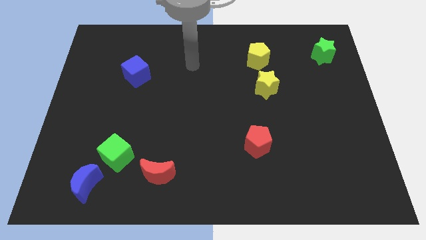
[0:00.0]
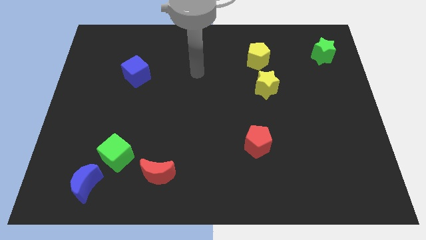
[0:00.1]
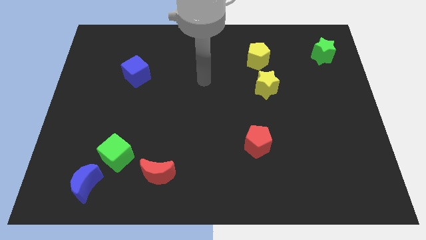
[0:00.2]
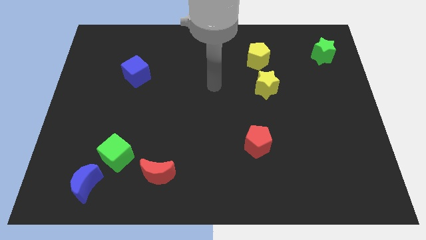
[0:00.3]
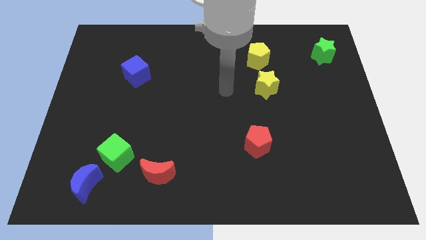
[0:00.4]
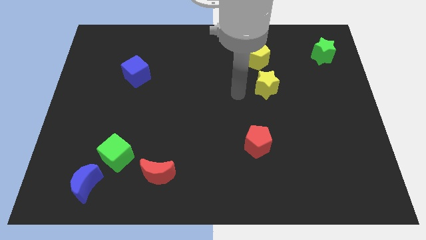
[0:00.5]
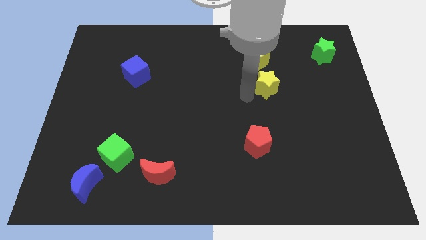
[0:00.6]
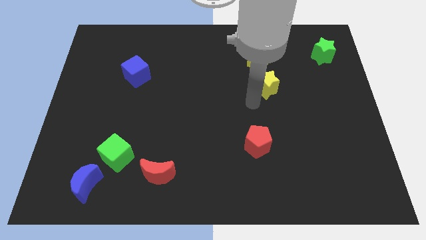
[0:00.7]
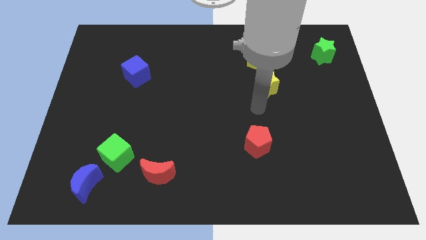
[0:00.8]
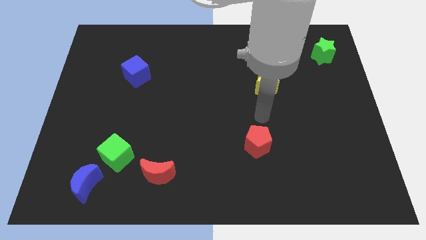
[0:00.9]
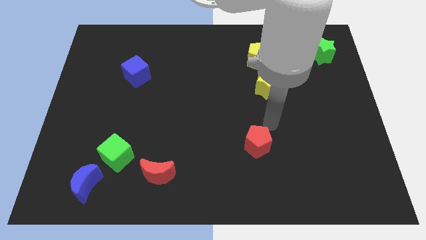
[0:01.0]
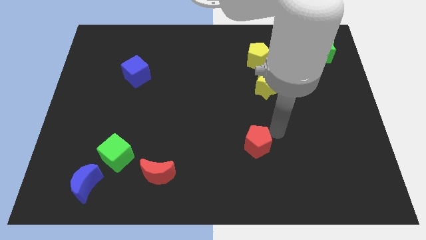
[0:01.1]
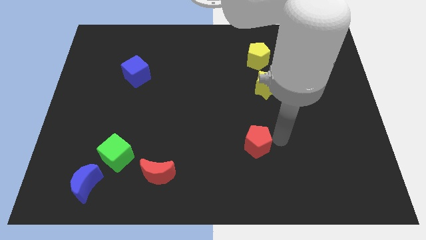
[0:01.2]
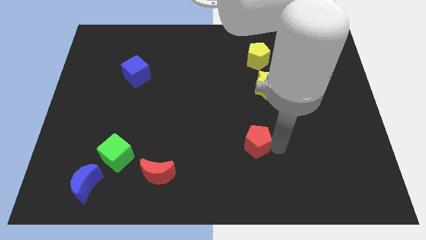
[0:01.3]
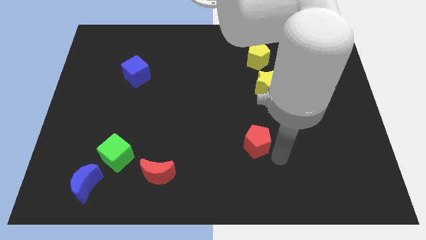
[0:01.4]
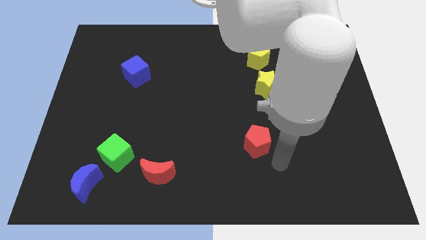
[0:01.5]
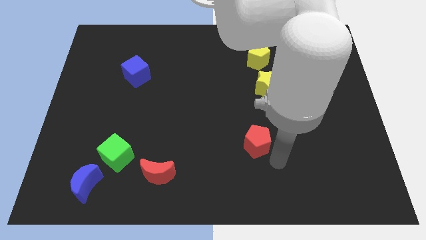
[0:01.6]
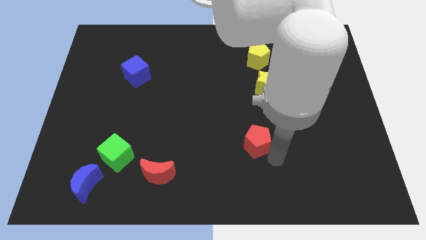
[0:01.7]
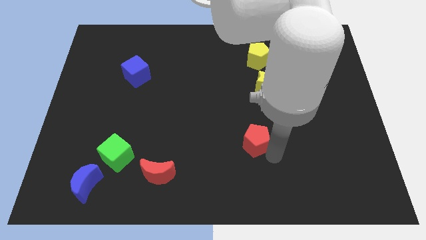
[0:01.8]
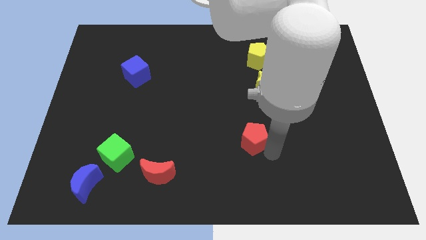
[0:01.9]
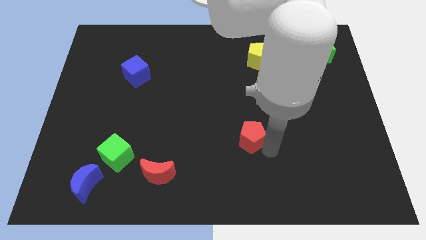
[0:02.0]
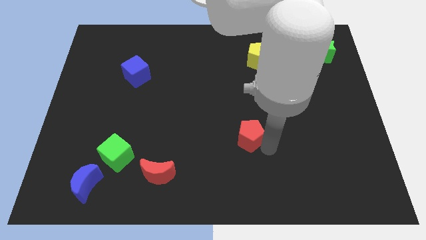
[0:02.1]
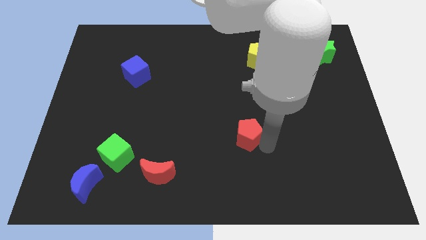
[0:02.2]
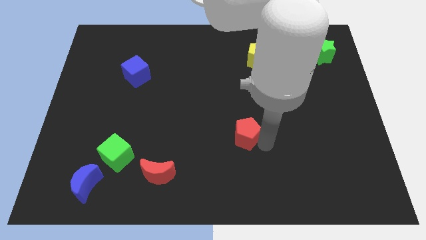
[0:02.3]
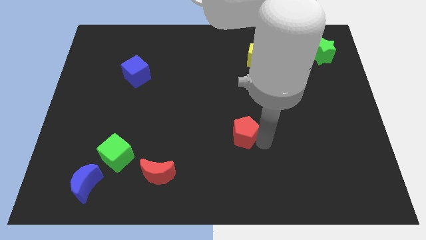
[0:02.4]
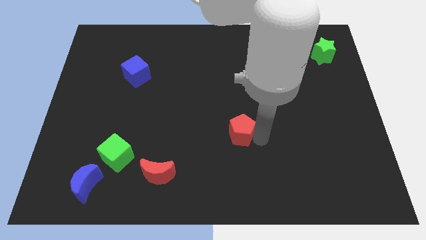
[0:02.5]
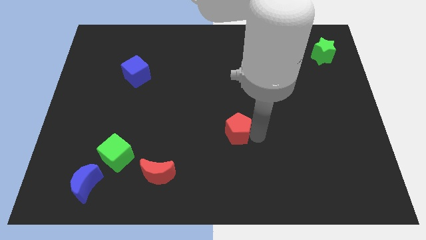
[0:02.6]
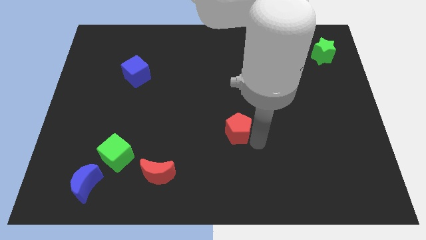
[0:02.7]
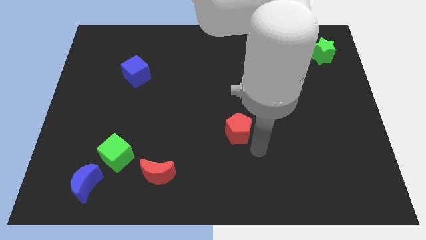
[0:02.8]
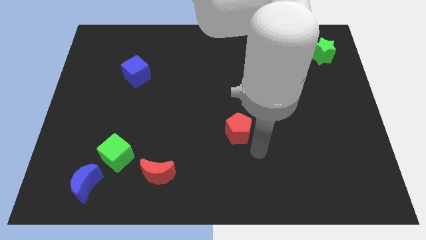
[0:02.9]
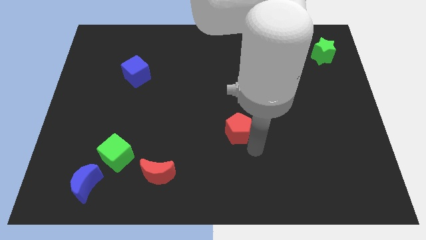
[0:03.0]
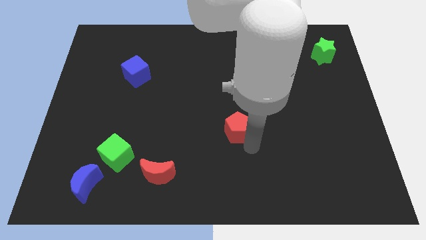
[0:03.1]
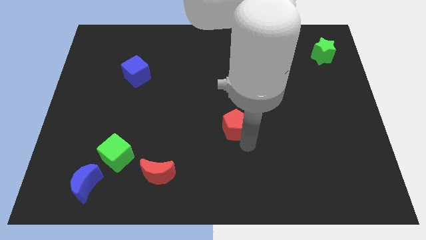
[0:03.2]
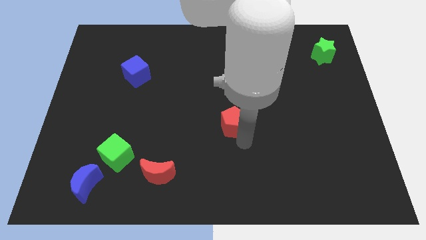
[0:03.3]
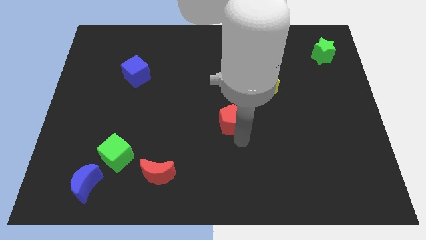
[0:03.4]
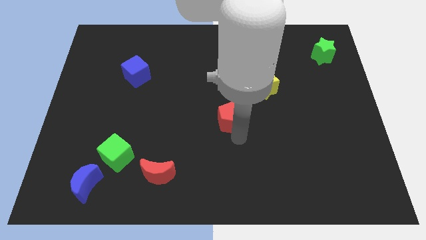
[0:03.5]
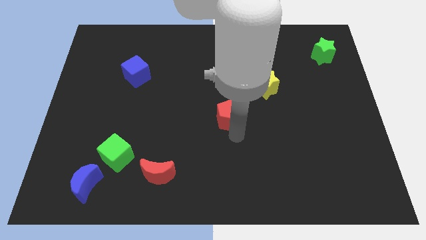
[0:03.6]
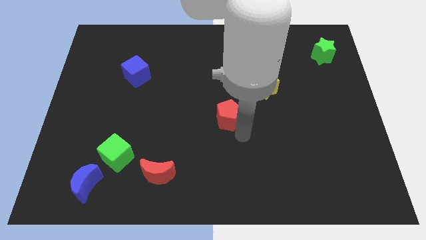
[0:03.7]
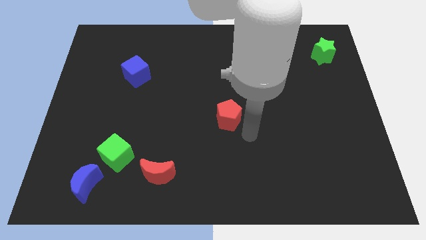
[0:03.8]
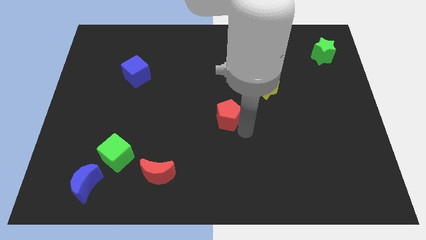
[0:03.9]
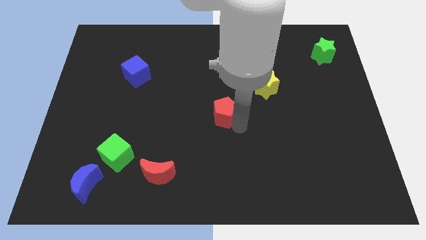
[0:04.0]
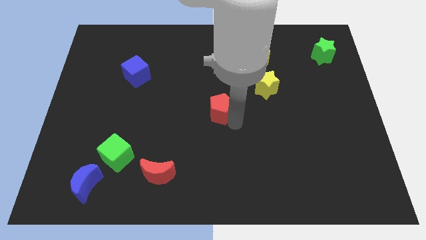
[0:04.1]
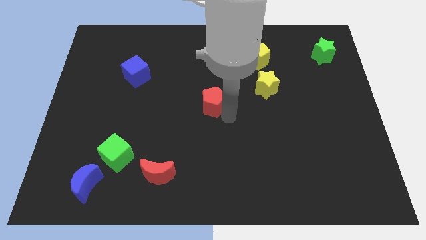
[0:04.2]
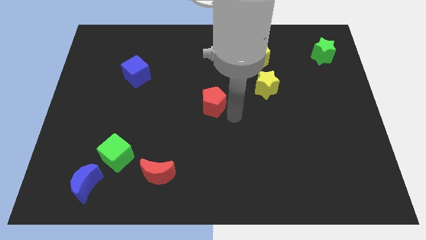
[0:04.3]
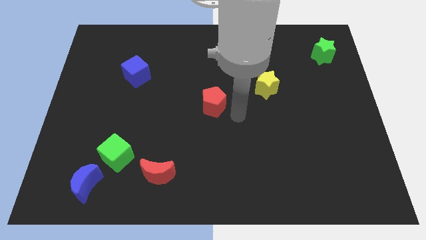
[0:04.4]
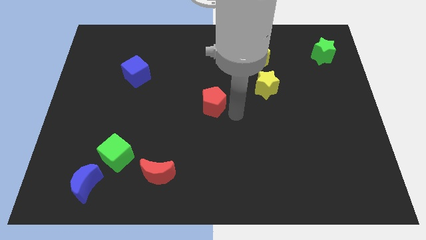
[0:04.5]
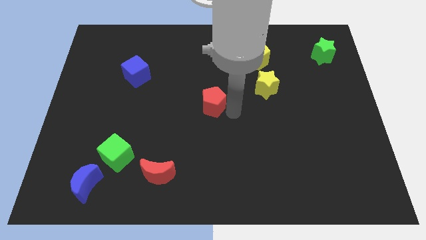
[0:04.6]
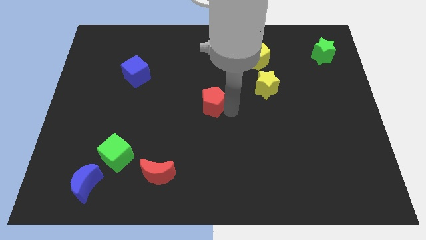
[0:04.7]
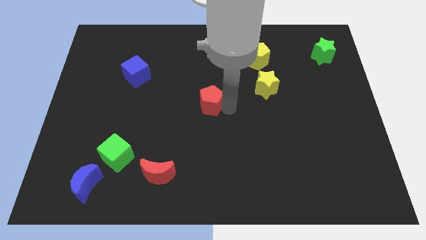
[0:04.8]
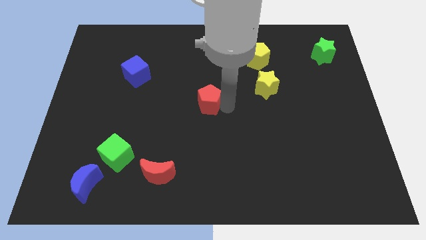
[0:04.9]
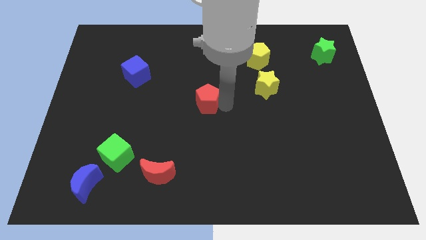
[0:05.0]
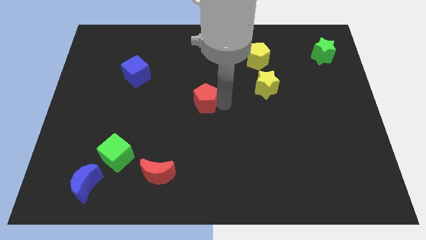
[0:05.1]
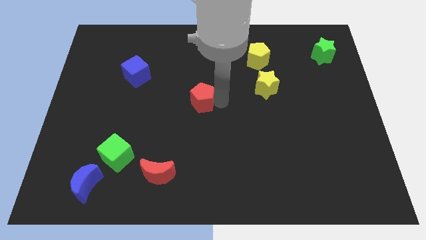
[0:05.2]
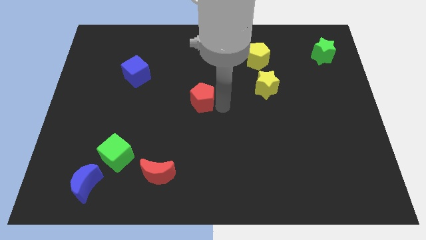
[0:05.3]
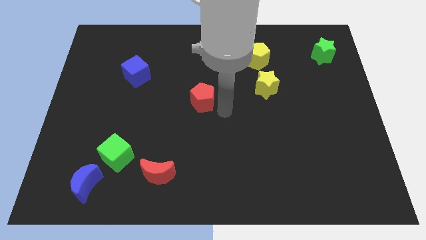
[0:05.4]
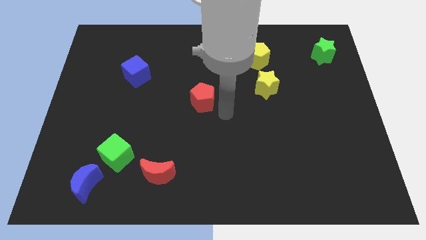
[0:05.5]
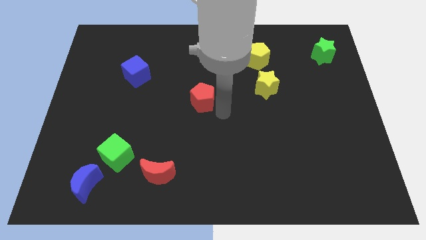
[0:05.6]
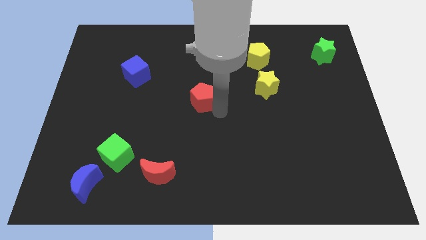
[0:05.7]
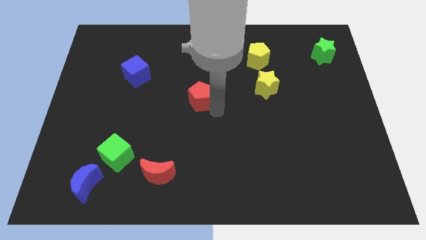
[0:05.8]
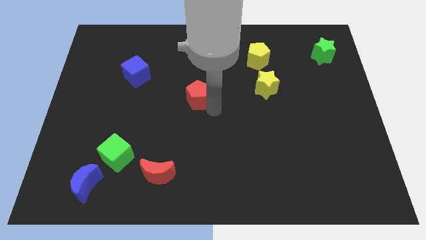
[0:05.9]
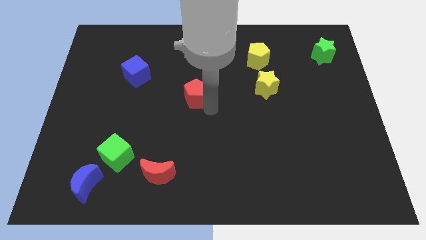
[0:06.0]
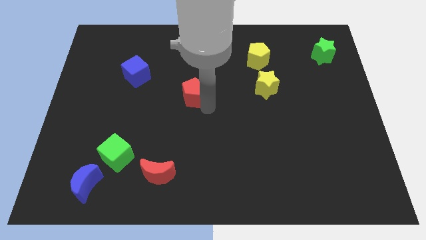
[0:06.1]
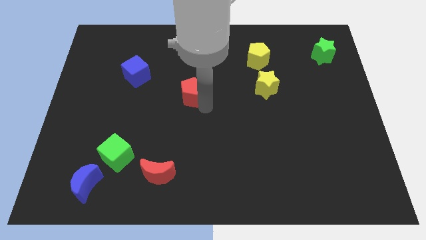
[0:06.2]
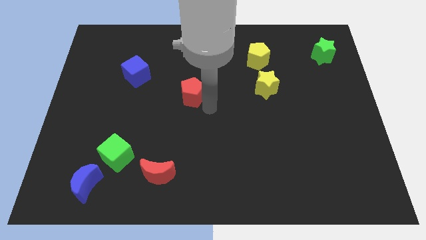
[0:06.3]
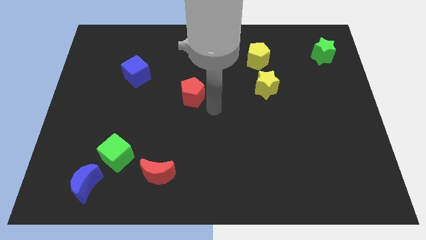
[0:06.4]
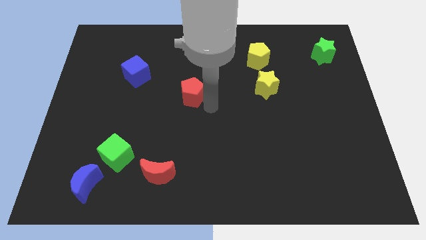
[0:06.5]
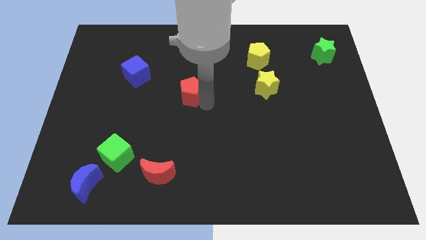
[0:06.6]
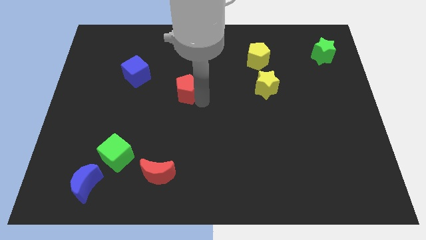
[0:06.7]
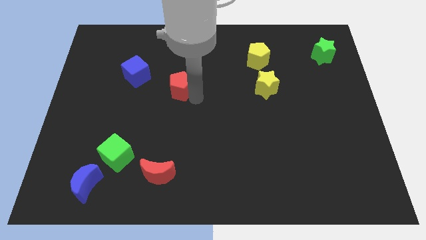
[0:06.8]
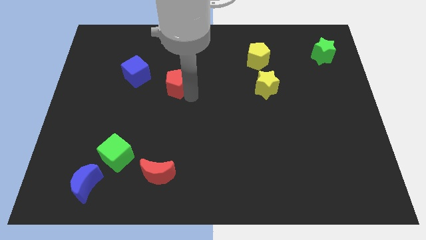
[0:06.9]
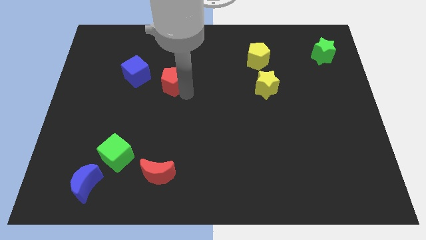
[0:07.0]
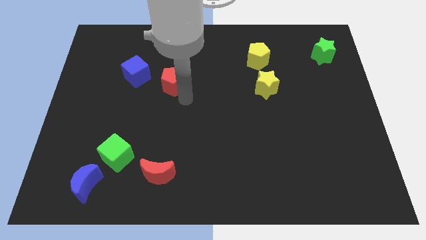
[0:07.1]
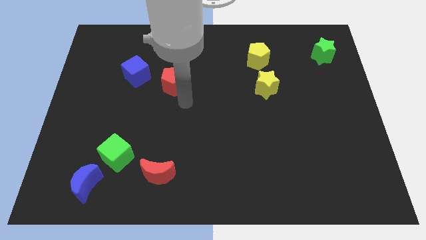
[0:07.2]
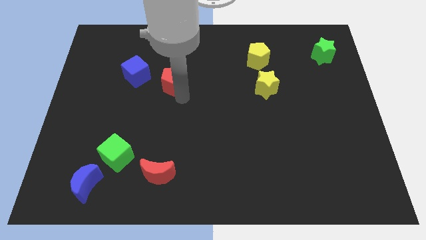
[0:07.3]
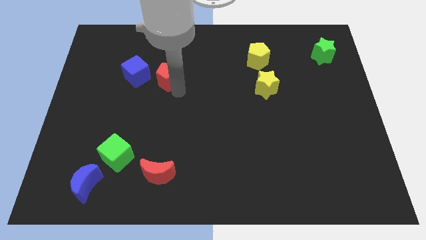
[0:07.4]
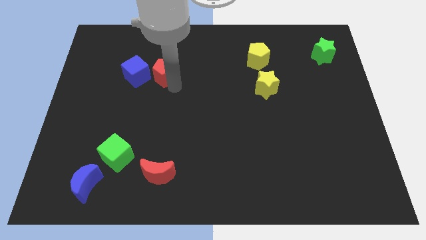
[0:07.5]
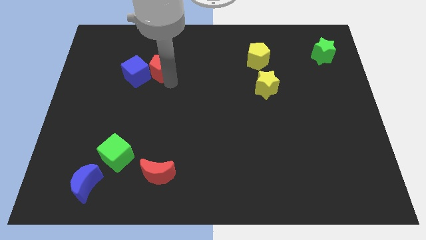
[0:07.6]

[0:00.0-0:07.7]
slide the red pentagon to the top right of the blue cube
